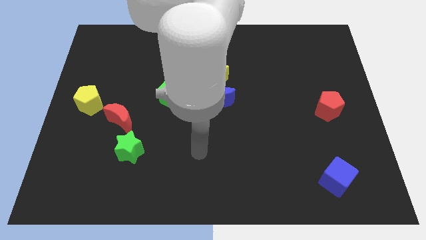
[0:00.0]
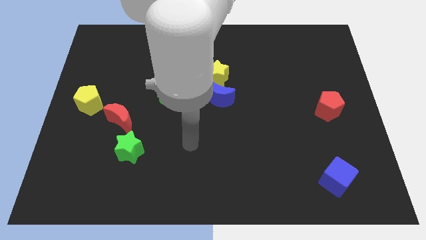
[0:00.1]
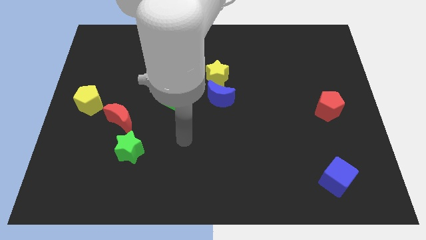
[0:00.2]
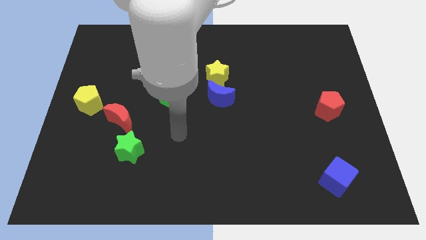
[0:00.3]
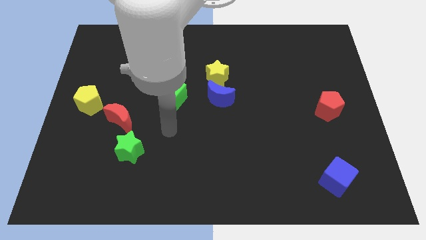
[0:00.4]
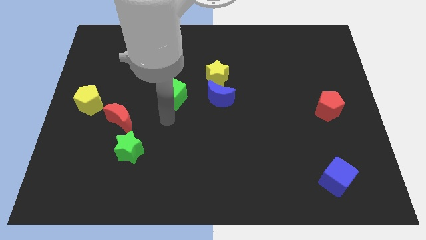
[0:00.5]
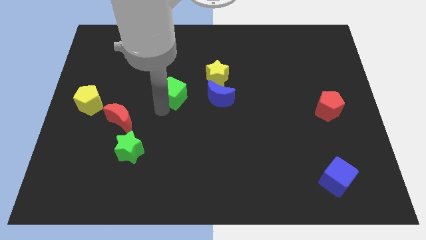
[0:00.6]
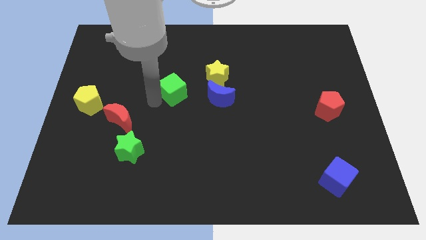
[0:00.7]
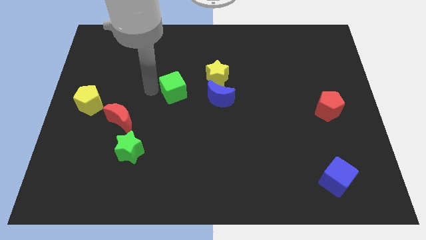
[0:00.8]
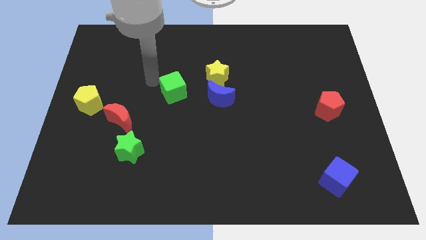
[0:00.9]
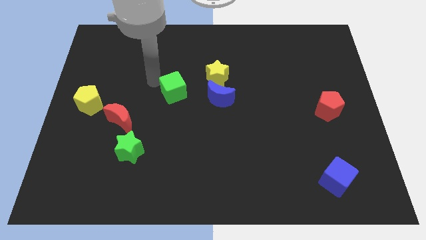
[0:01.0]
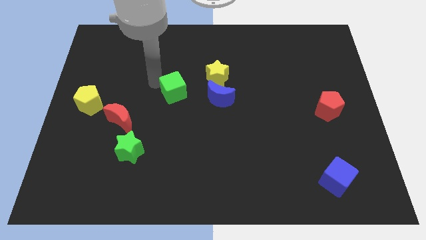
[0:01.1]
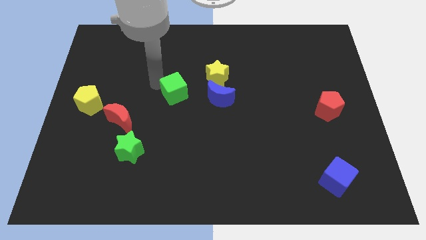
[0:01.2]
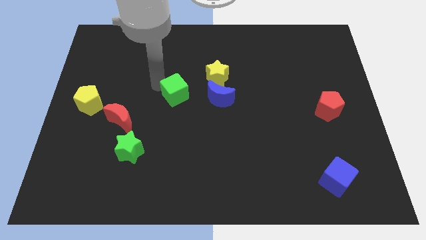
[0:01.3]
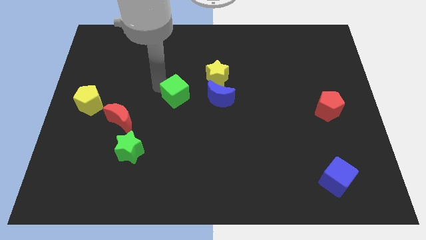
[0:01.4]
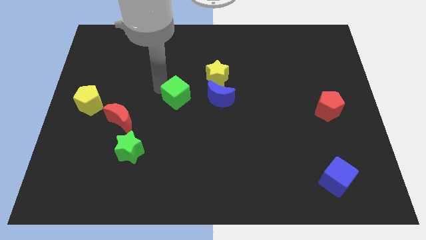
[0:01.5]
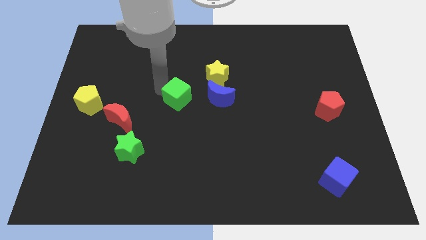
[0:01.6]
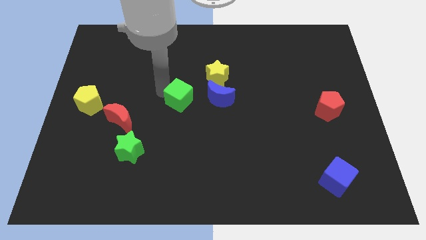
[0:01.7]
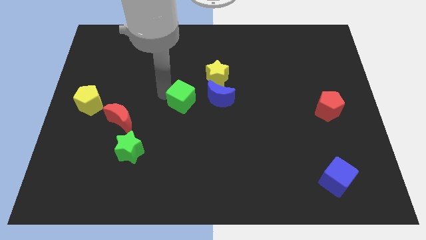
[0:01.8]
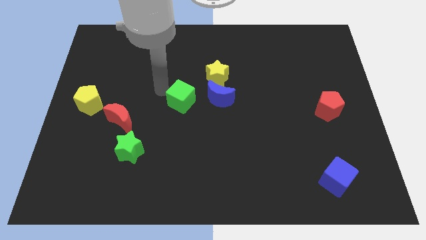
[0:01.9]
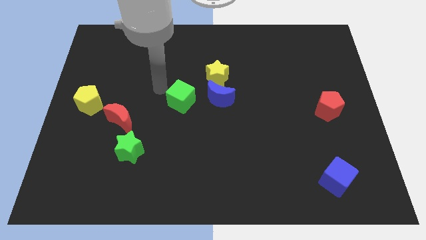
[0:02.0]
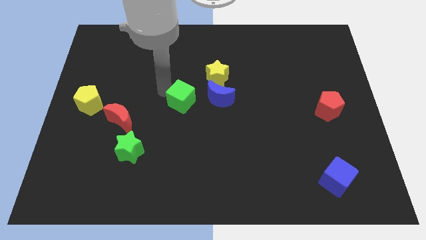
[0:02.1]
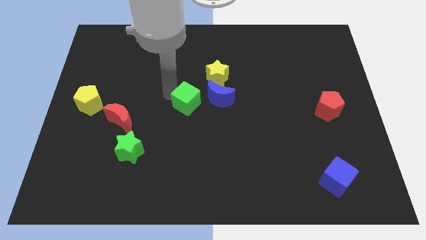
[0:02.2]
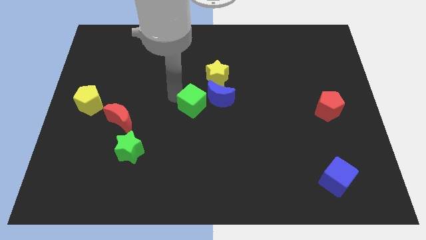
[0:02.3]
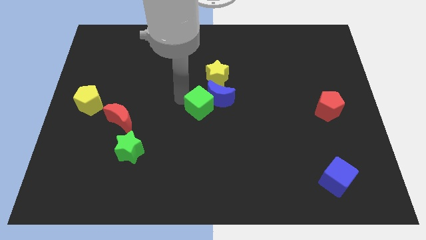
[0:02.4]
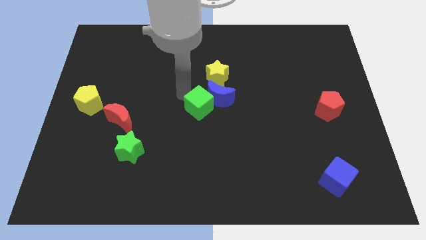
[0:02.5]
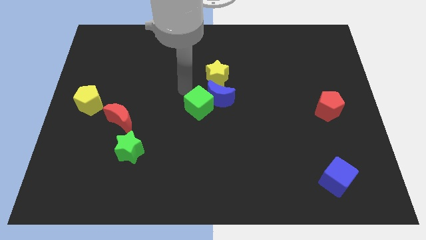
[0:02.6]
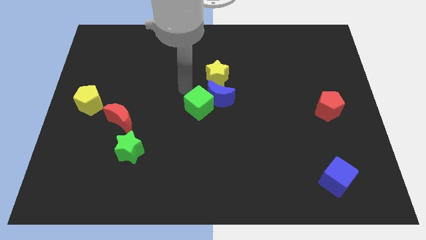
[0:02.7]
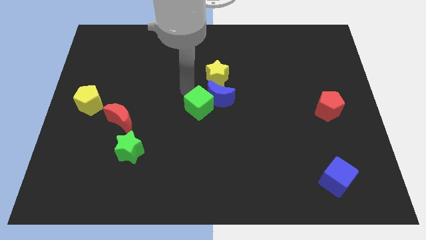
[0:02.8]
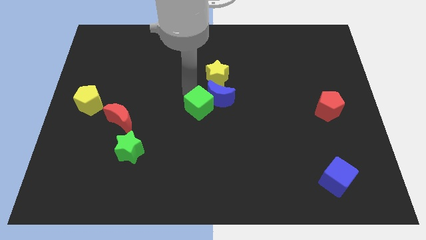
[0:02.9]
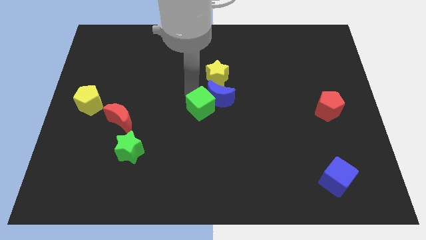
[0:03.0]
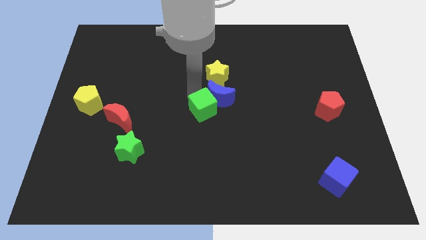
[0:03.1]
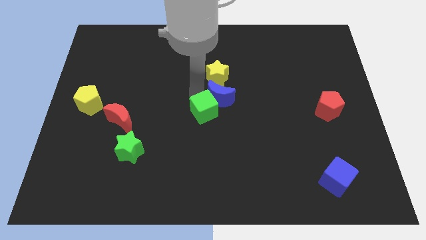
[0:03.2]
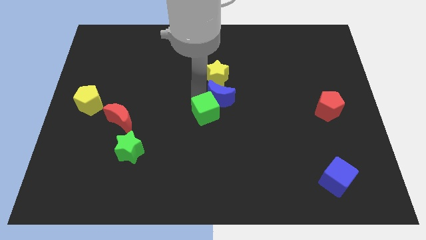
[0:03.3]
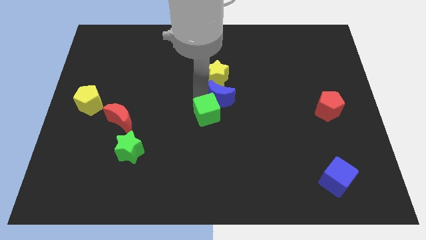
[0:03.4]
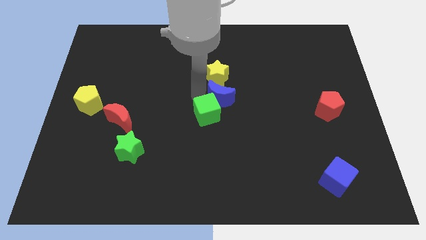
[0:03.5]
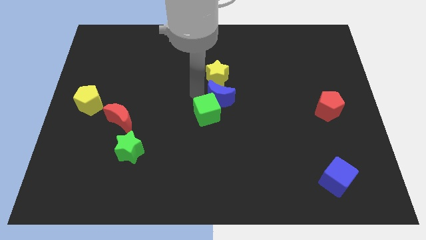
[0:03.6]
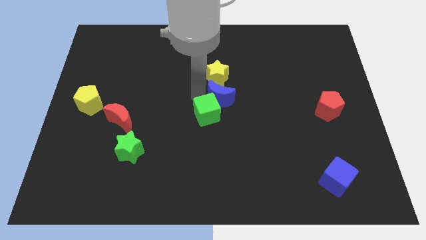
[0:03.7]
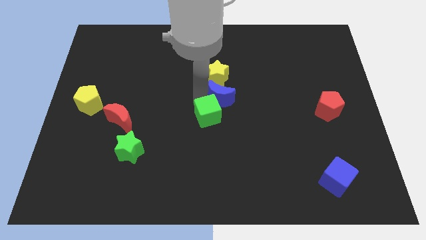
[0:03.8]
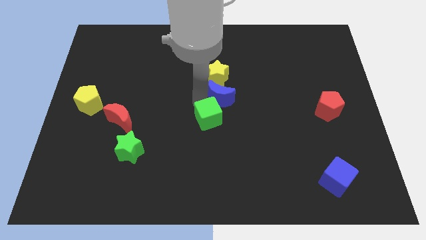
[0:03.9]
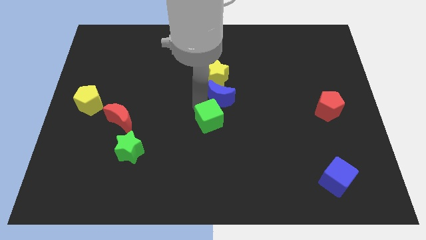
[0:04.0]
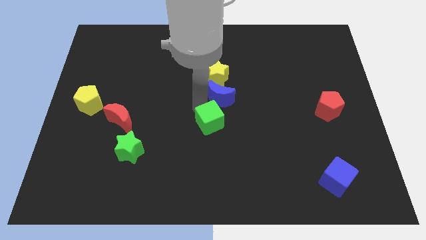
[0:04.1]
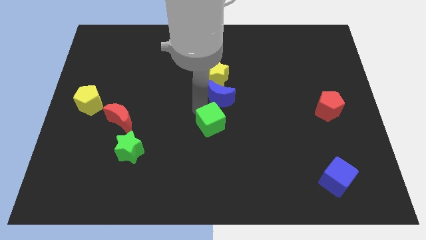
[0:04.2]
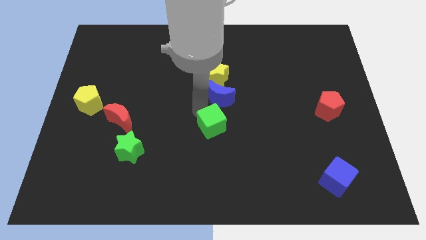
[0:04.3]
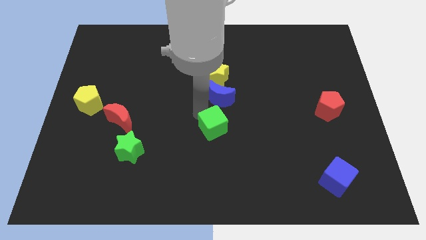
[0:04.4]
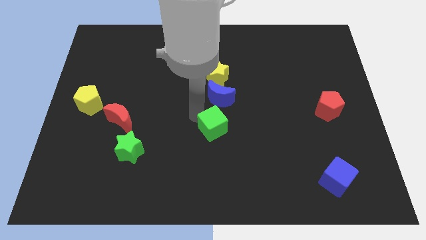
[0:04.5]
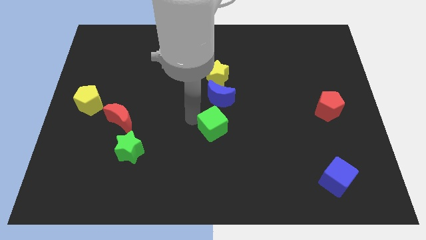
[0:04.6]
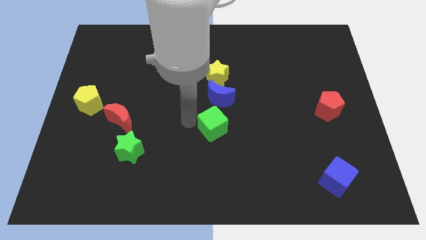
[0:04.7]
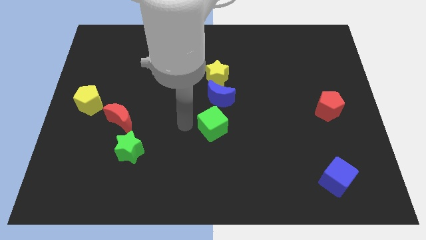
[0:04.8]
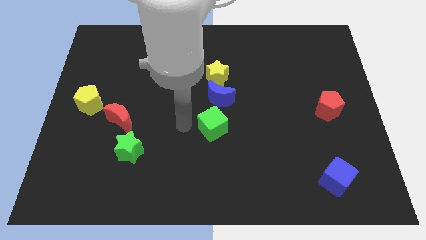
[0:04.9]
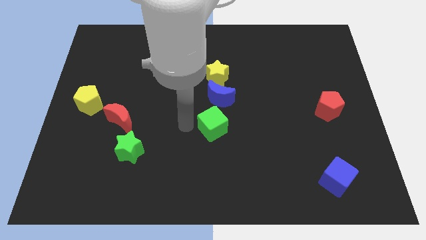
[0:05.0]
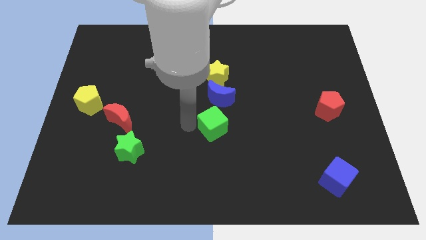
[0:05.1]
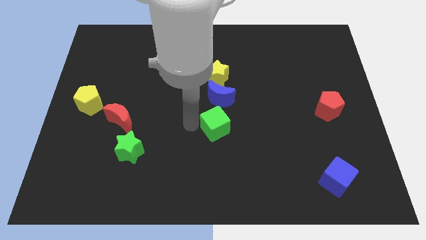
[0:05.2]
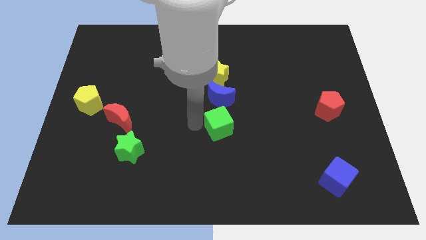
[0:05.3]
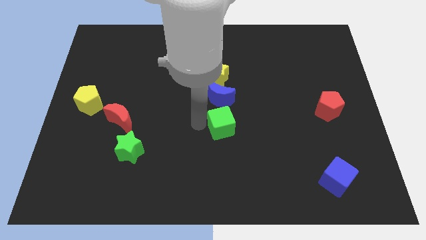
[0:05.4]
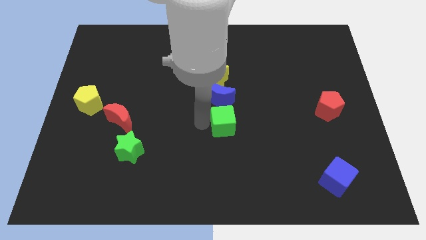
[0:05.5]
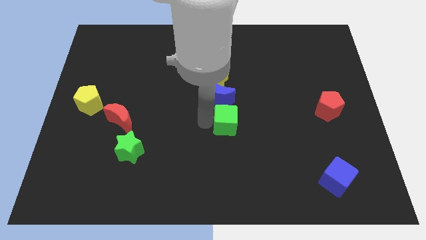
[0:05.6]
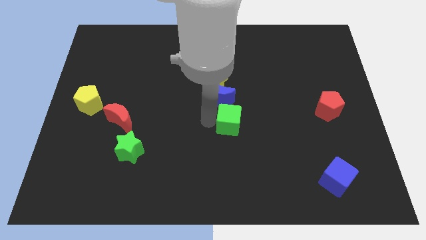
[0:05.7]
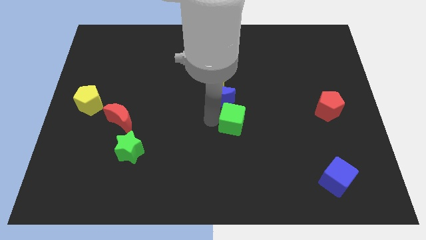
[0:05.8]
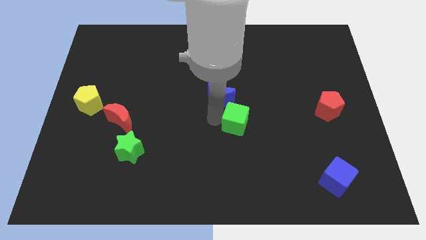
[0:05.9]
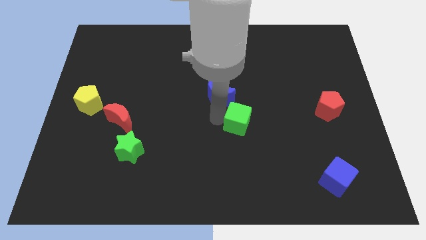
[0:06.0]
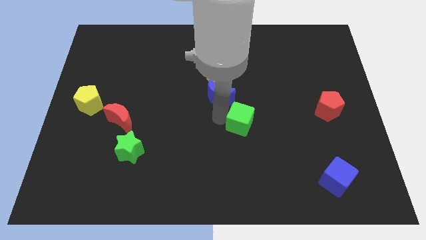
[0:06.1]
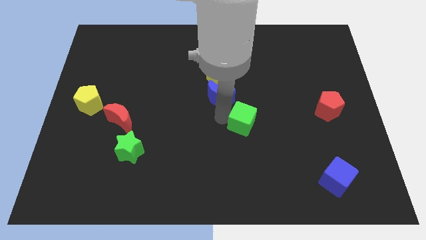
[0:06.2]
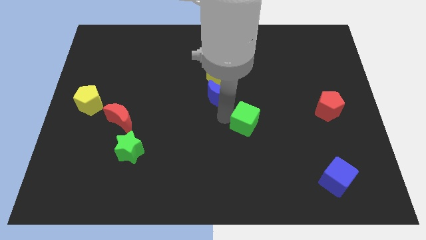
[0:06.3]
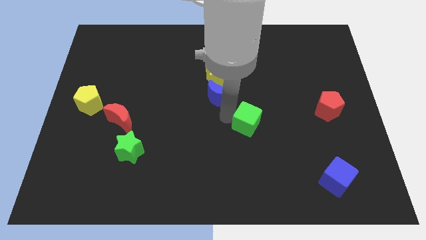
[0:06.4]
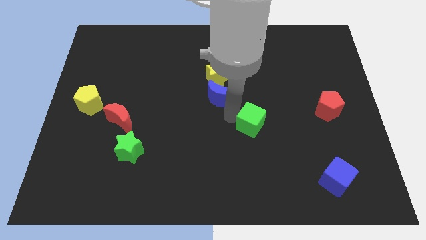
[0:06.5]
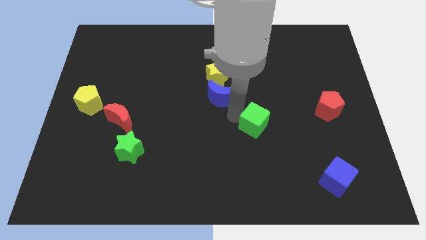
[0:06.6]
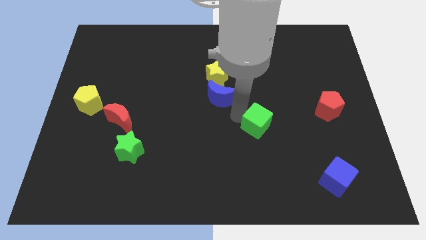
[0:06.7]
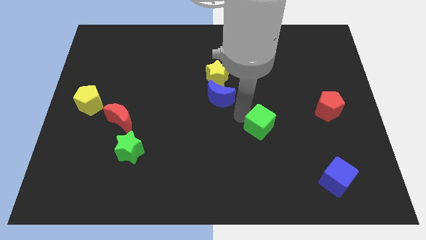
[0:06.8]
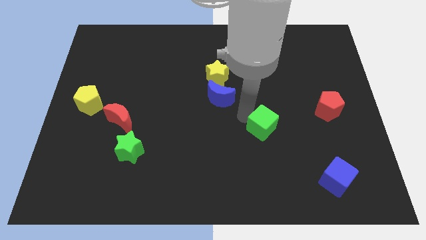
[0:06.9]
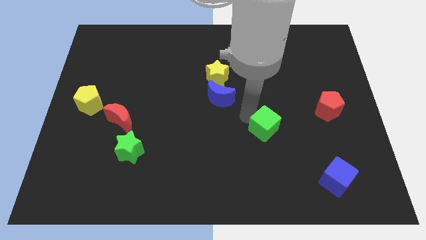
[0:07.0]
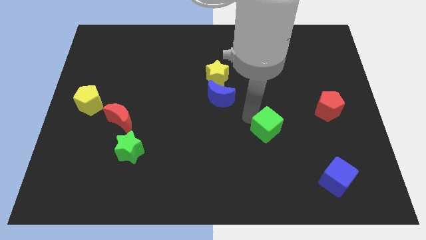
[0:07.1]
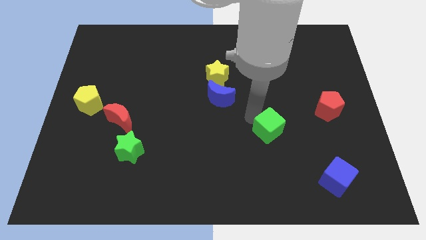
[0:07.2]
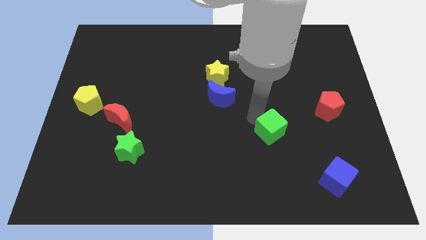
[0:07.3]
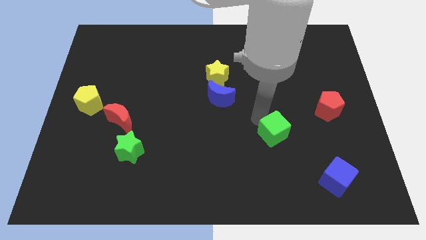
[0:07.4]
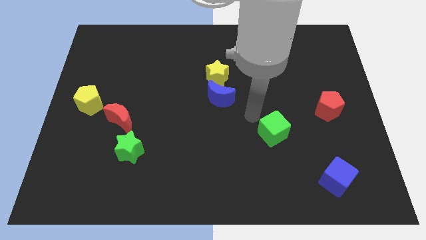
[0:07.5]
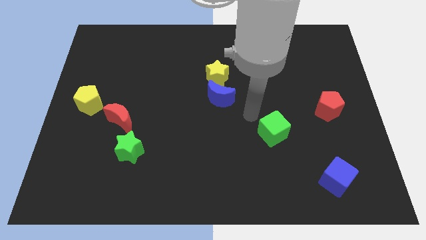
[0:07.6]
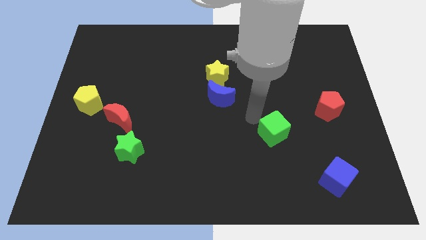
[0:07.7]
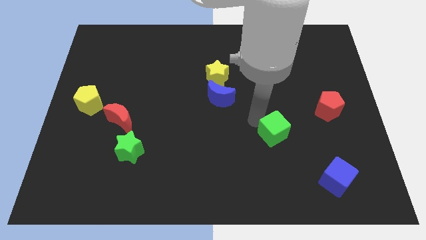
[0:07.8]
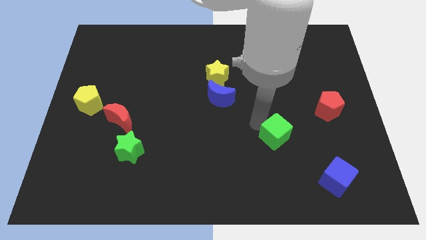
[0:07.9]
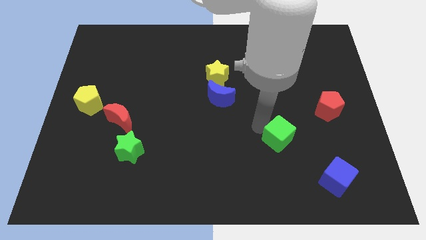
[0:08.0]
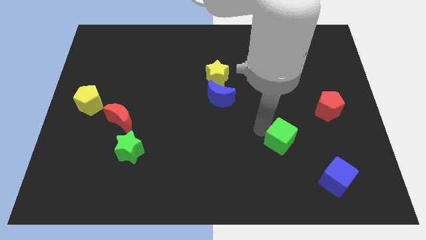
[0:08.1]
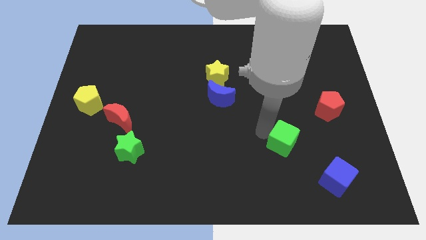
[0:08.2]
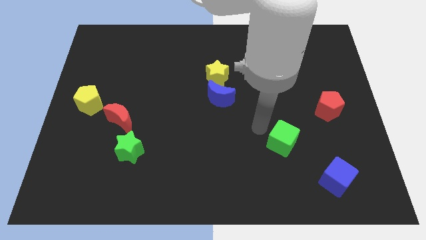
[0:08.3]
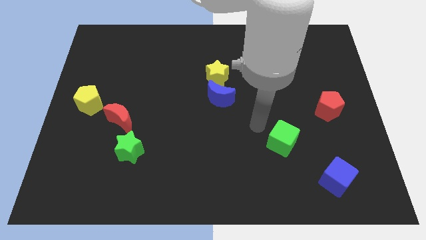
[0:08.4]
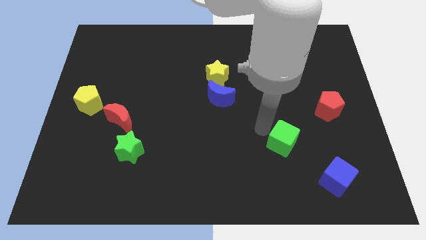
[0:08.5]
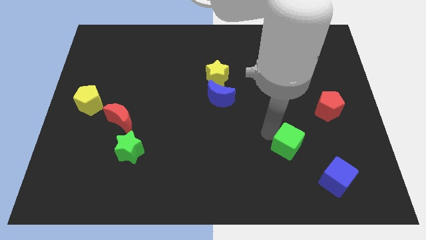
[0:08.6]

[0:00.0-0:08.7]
slide the green cube diagonally up and to the left of the blue cube
